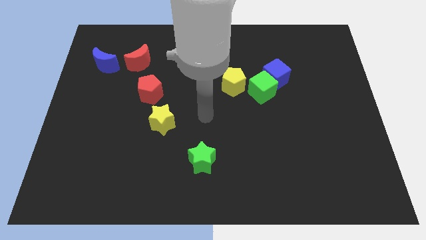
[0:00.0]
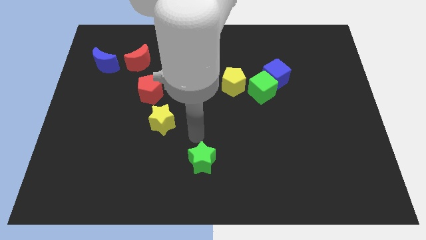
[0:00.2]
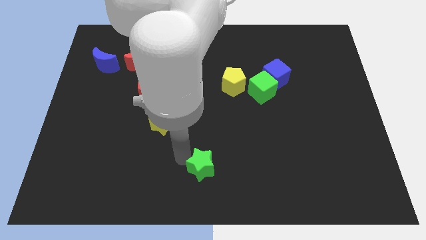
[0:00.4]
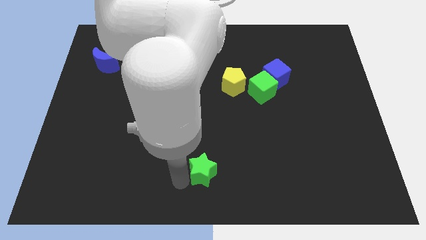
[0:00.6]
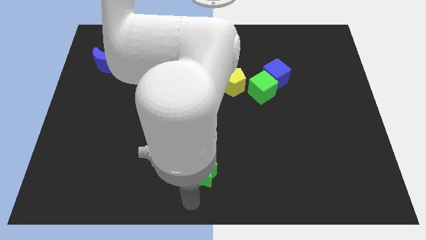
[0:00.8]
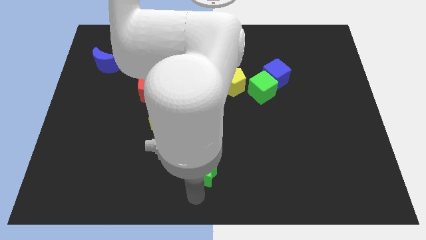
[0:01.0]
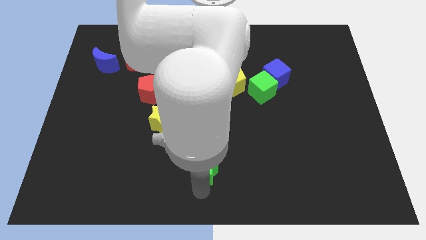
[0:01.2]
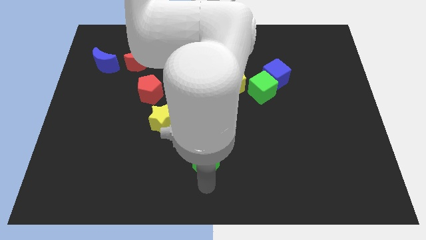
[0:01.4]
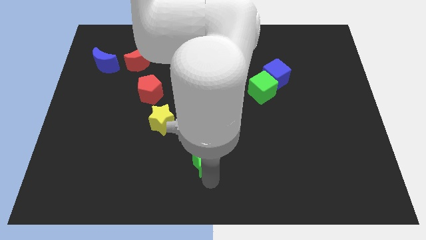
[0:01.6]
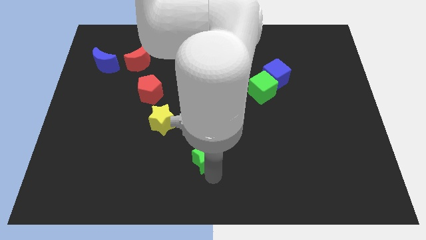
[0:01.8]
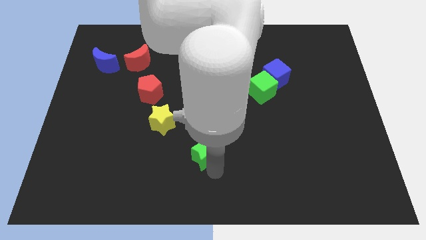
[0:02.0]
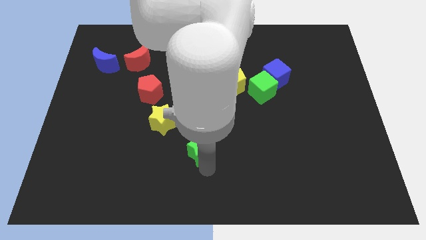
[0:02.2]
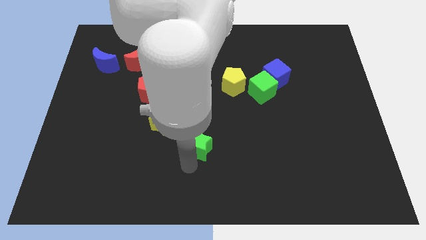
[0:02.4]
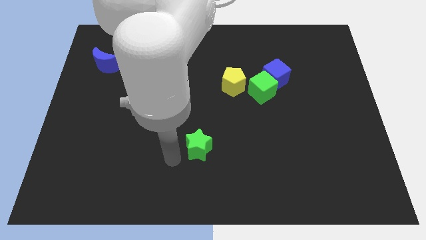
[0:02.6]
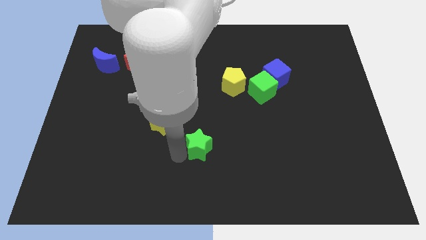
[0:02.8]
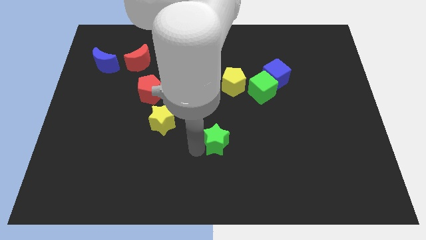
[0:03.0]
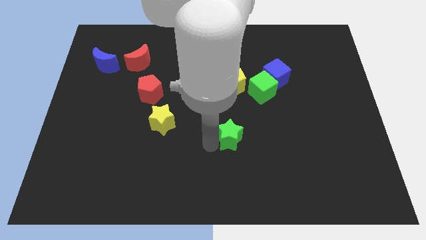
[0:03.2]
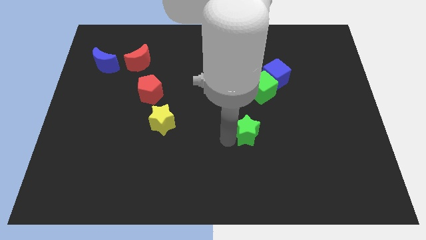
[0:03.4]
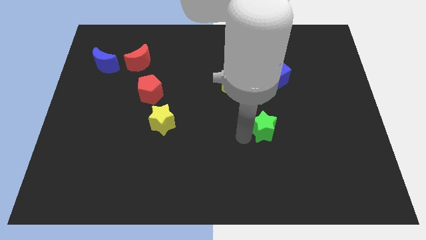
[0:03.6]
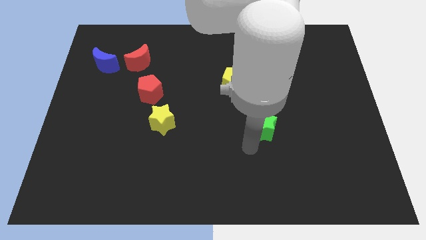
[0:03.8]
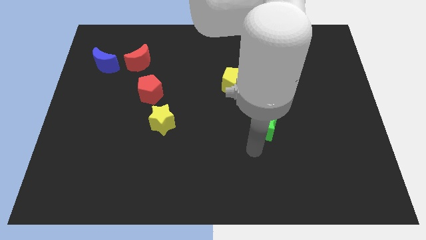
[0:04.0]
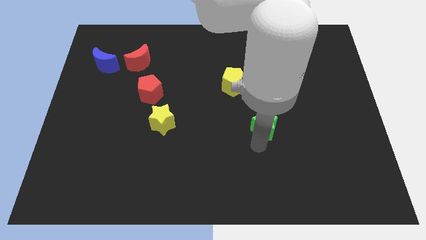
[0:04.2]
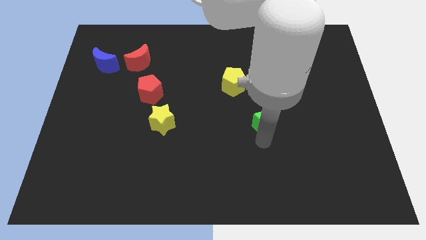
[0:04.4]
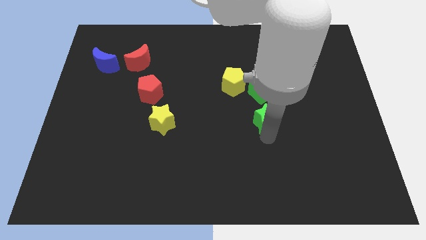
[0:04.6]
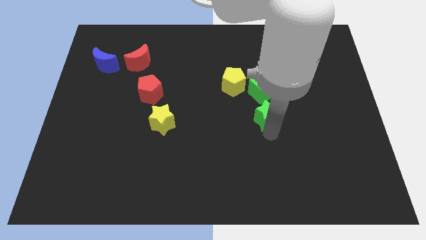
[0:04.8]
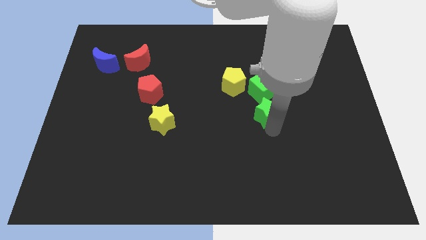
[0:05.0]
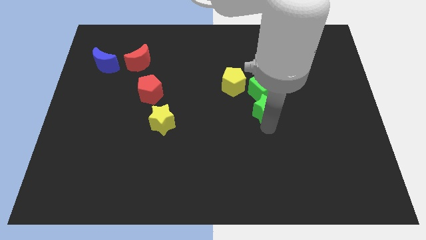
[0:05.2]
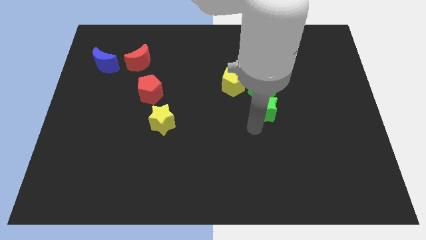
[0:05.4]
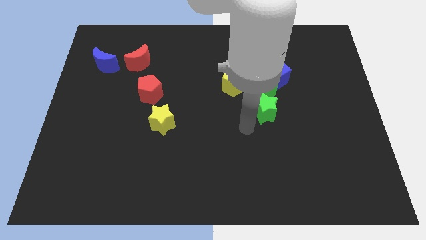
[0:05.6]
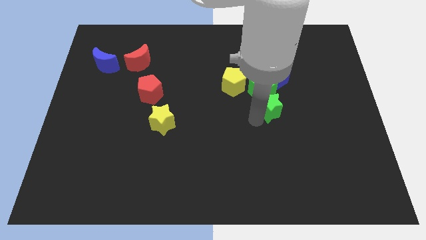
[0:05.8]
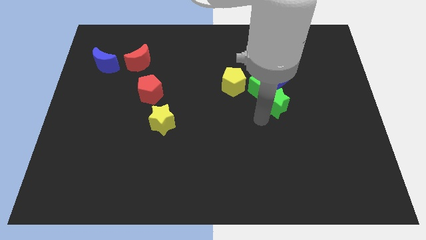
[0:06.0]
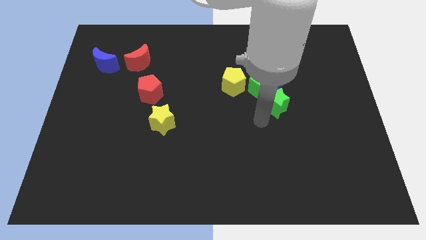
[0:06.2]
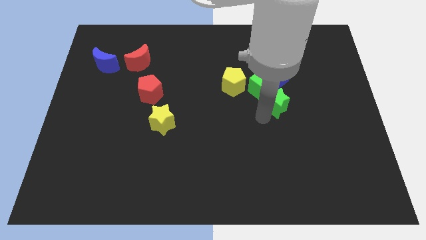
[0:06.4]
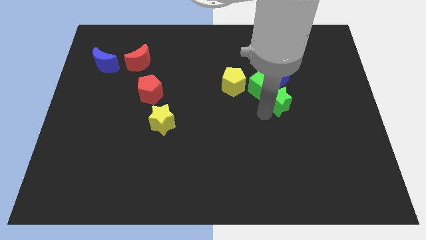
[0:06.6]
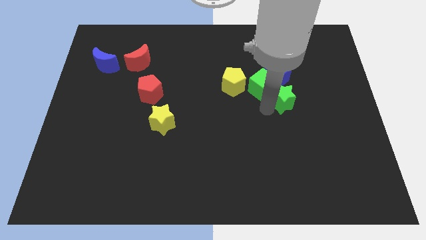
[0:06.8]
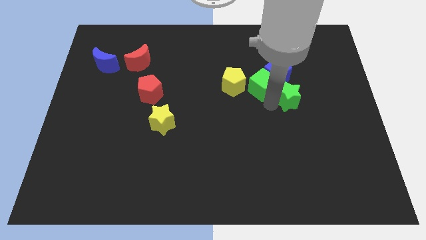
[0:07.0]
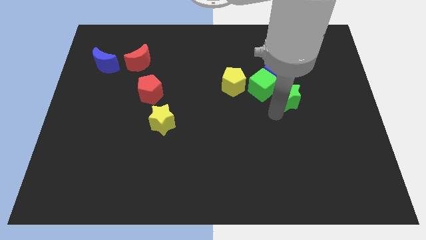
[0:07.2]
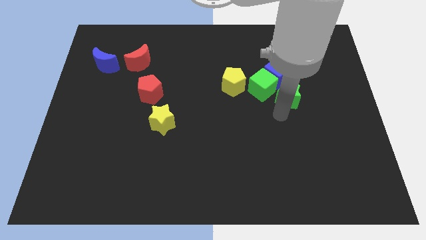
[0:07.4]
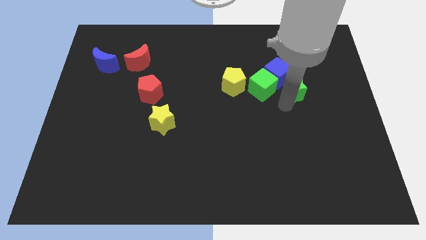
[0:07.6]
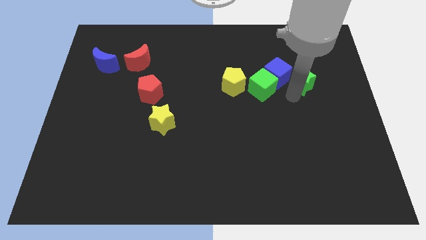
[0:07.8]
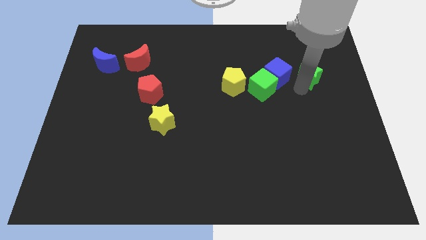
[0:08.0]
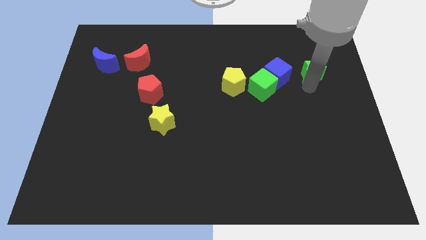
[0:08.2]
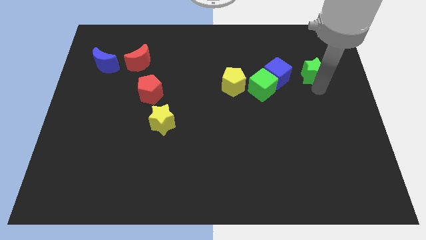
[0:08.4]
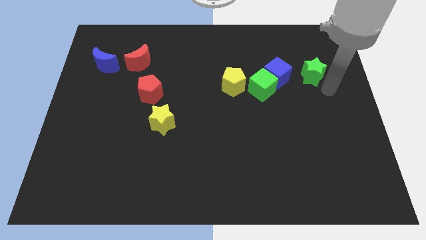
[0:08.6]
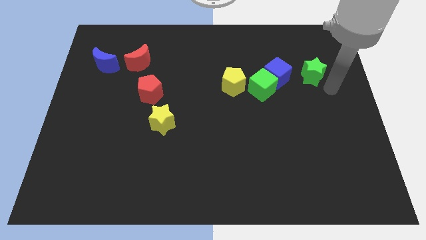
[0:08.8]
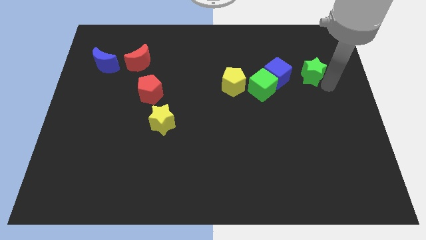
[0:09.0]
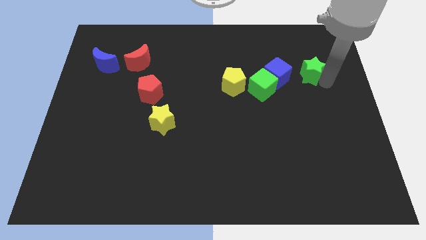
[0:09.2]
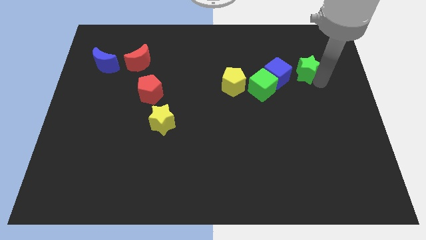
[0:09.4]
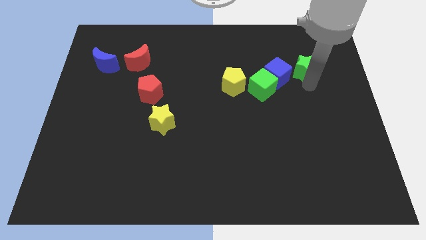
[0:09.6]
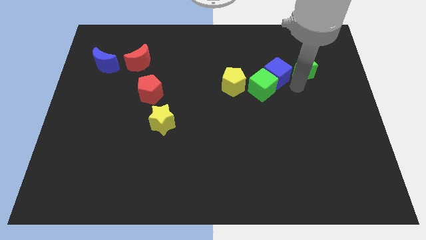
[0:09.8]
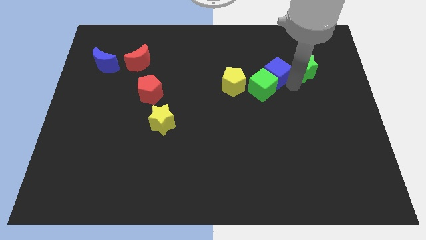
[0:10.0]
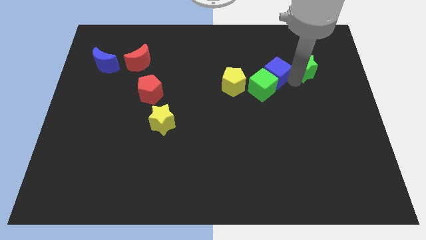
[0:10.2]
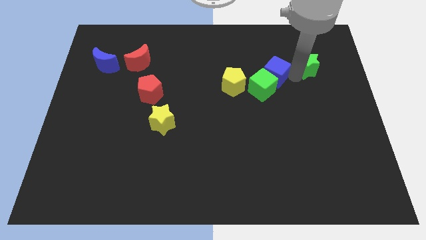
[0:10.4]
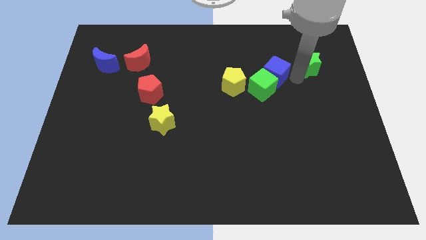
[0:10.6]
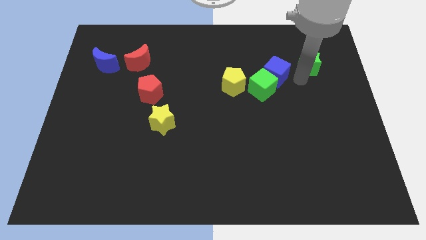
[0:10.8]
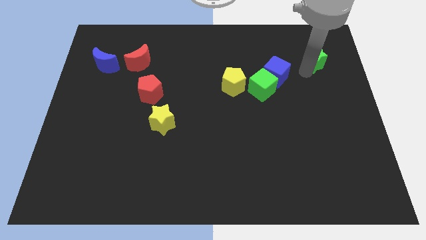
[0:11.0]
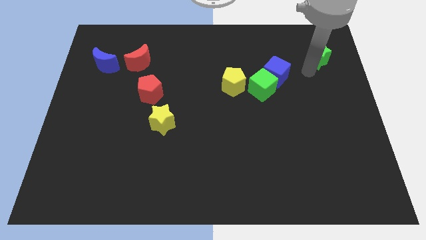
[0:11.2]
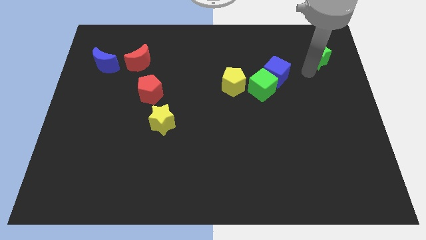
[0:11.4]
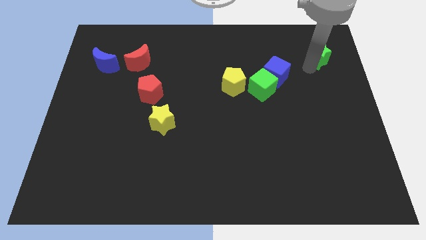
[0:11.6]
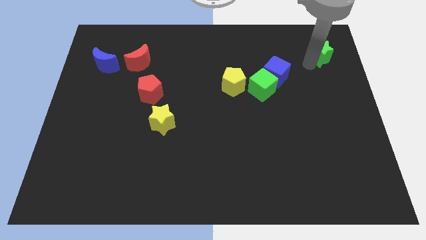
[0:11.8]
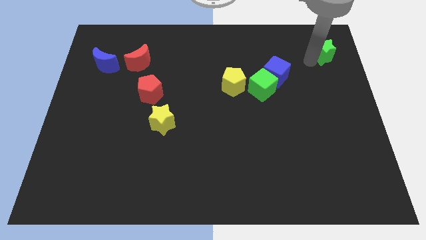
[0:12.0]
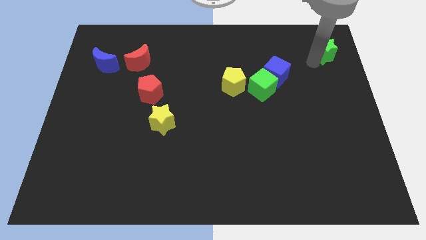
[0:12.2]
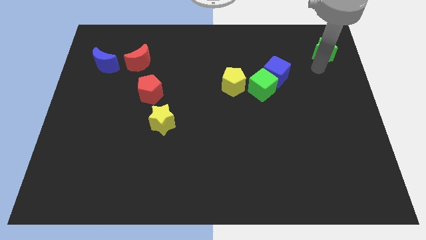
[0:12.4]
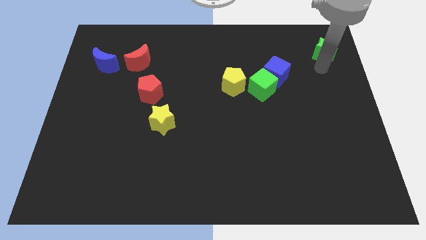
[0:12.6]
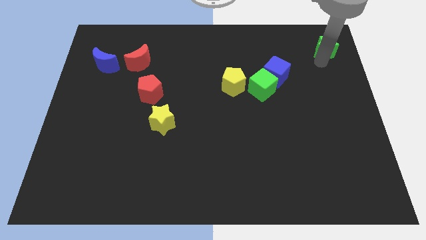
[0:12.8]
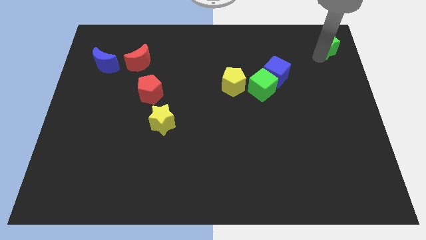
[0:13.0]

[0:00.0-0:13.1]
move the green star to the top right

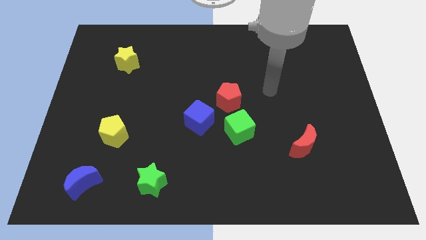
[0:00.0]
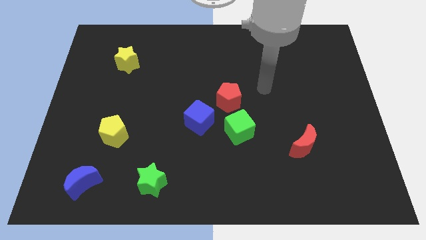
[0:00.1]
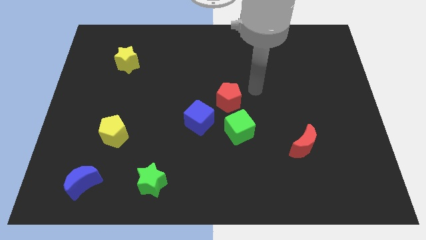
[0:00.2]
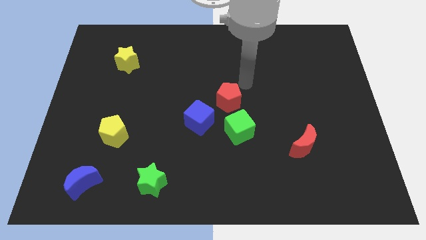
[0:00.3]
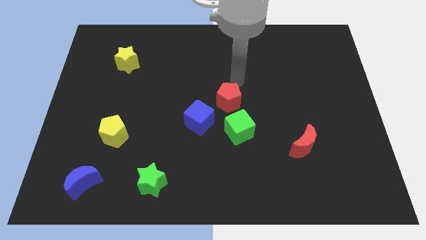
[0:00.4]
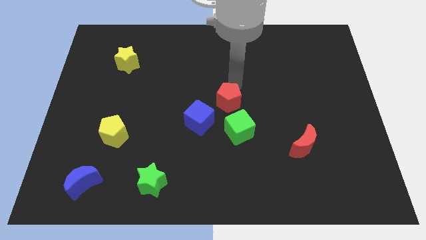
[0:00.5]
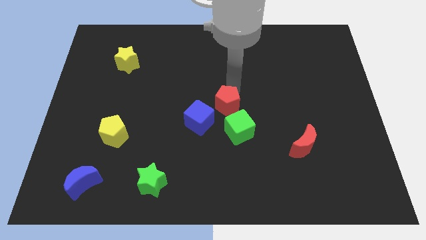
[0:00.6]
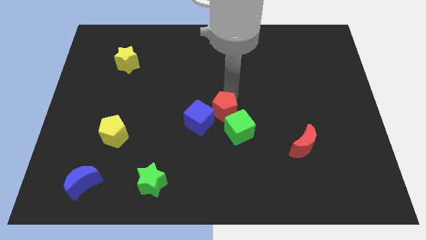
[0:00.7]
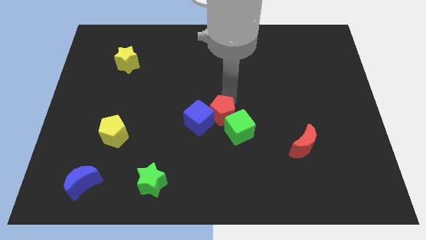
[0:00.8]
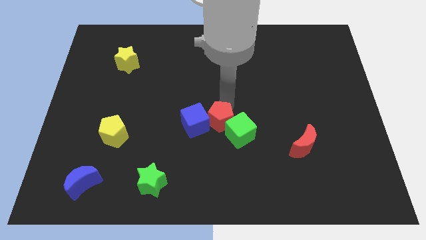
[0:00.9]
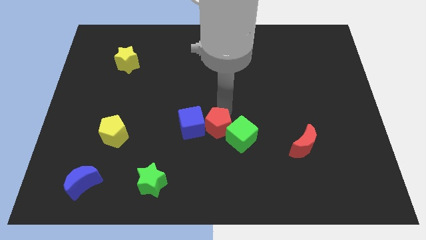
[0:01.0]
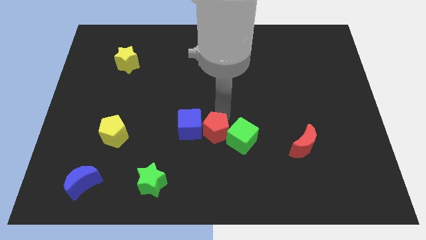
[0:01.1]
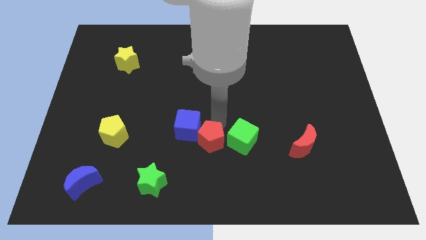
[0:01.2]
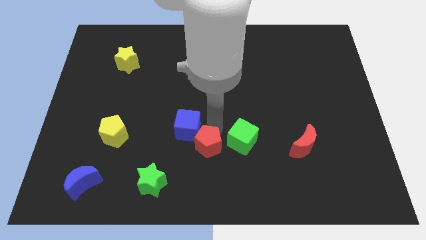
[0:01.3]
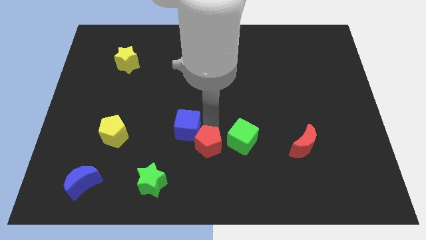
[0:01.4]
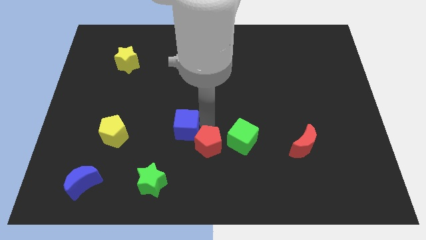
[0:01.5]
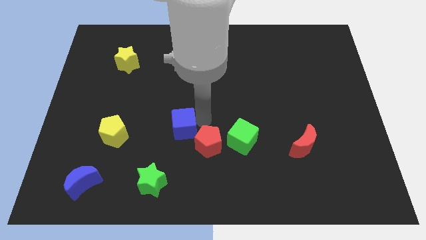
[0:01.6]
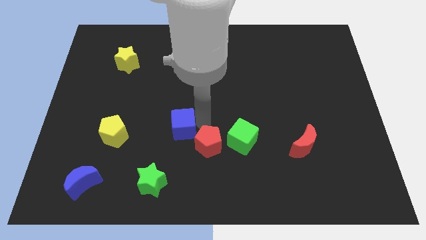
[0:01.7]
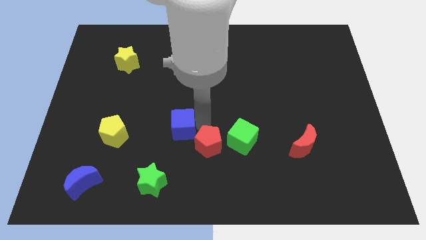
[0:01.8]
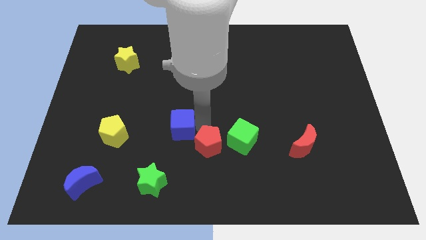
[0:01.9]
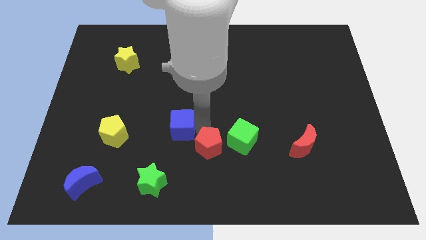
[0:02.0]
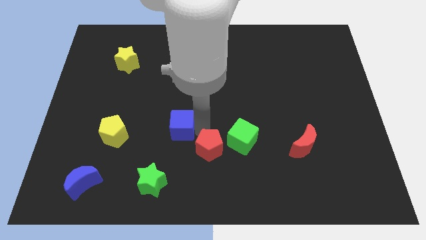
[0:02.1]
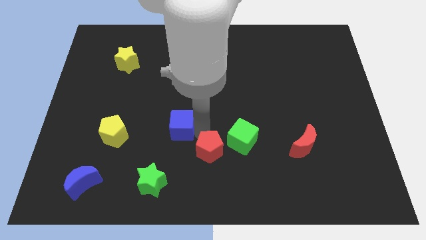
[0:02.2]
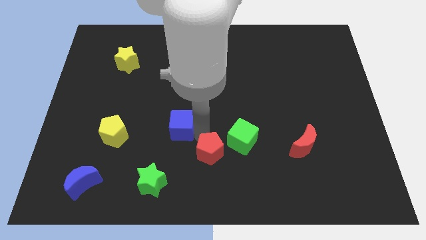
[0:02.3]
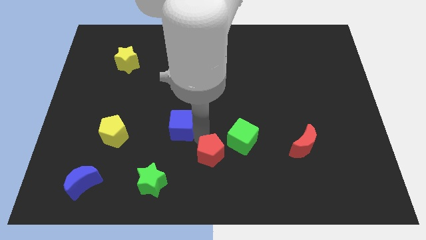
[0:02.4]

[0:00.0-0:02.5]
put the red pentagon to the bottom
